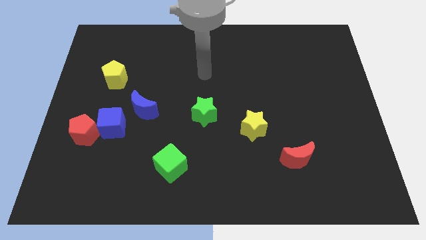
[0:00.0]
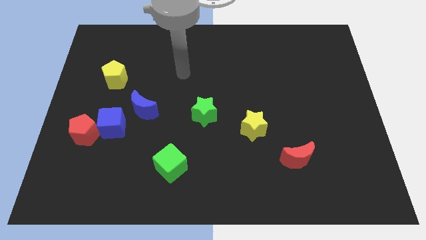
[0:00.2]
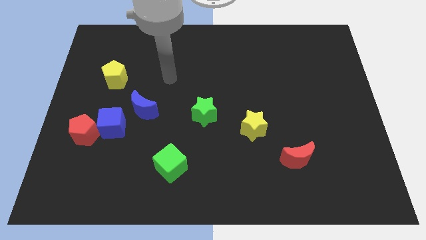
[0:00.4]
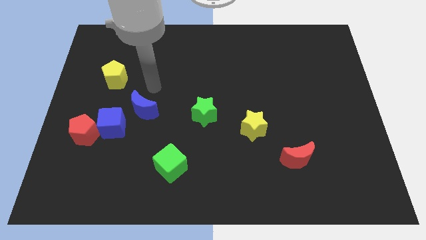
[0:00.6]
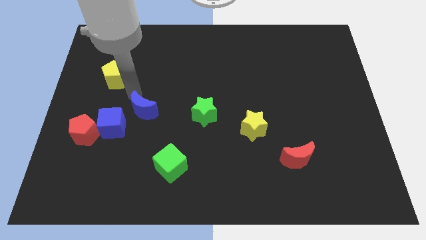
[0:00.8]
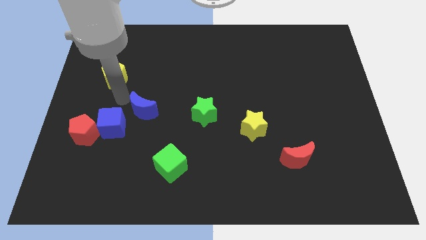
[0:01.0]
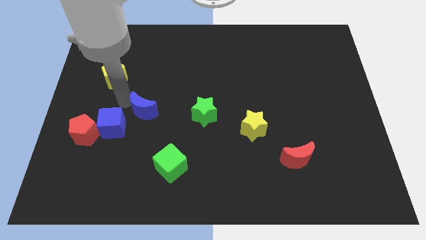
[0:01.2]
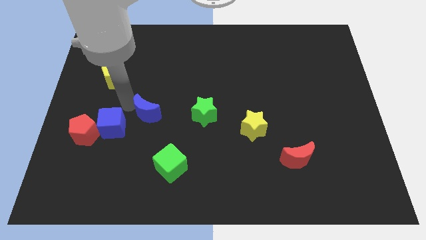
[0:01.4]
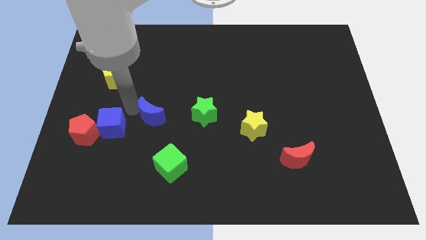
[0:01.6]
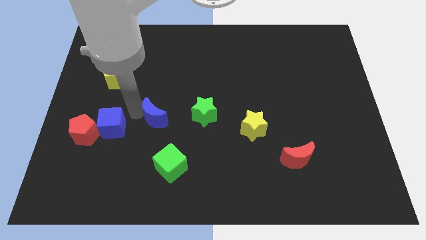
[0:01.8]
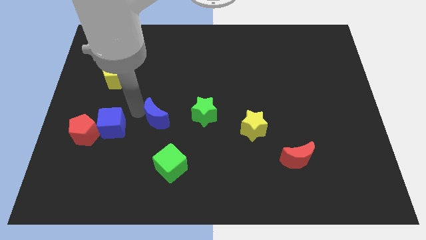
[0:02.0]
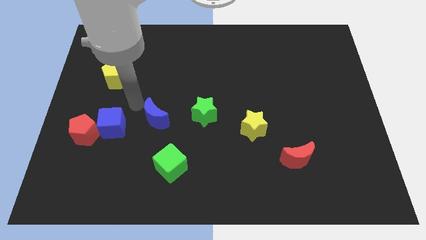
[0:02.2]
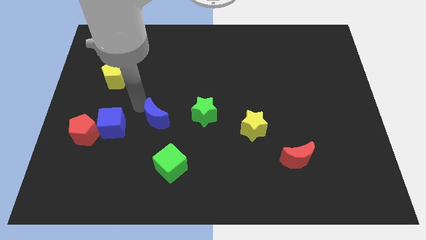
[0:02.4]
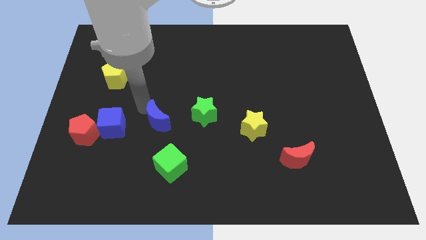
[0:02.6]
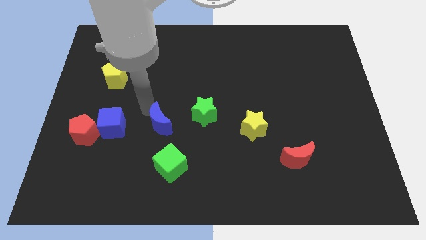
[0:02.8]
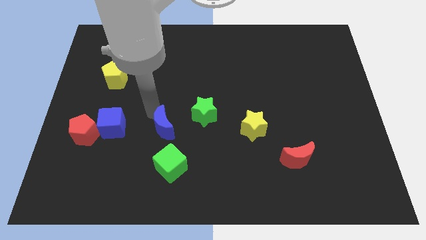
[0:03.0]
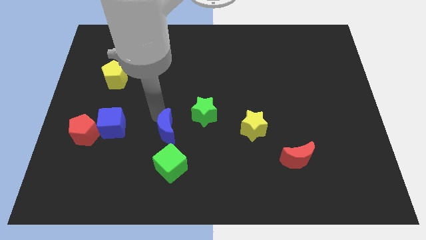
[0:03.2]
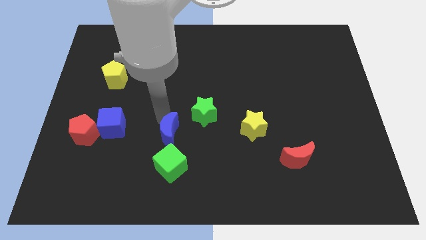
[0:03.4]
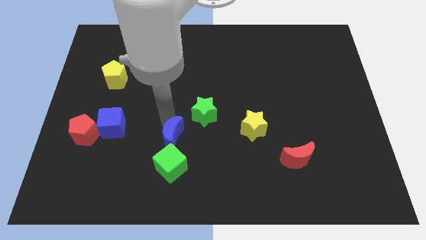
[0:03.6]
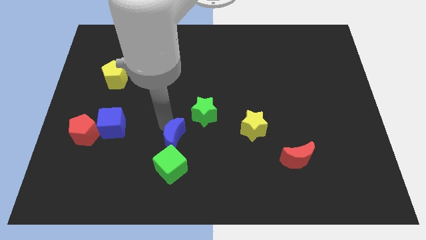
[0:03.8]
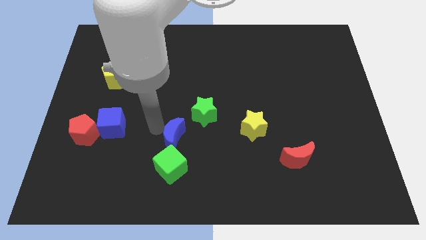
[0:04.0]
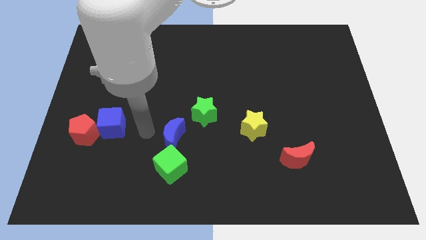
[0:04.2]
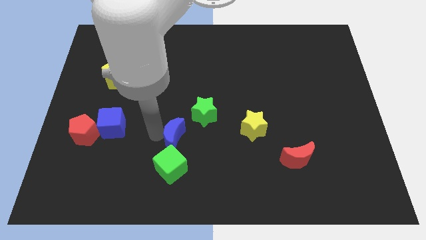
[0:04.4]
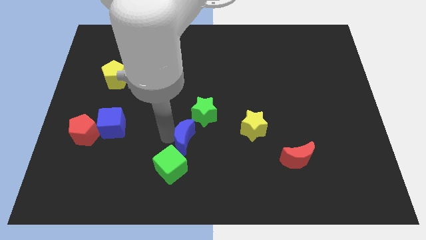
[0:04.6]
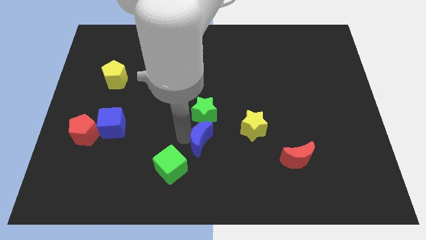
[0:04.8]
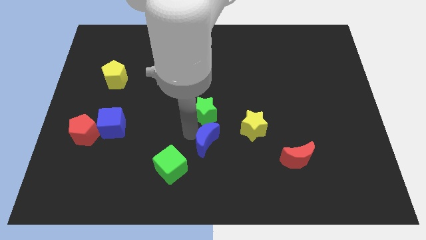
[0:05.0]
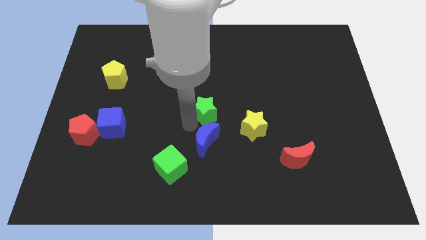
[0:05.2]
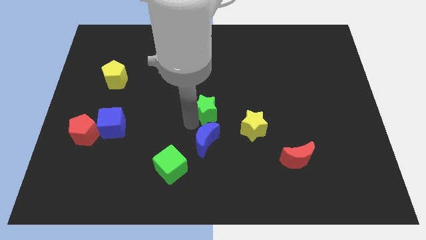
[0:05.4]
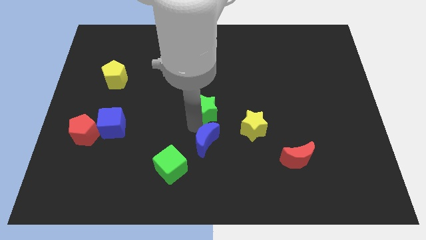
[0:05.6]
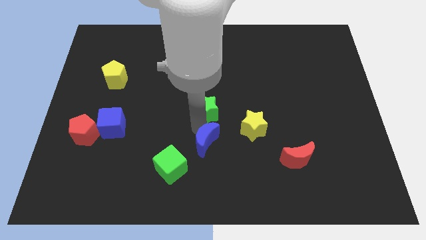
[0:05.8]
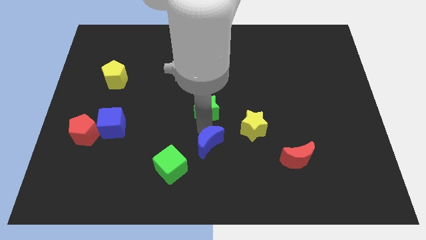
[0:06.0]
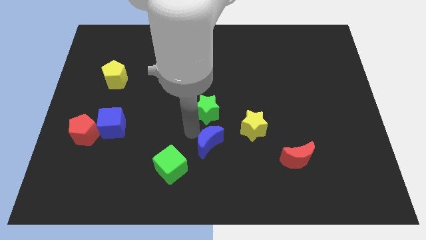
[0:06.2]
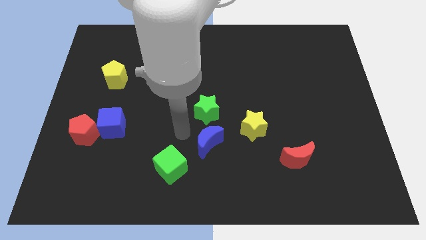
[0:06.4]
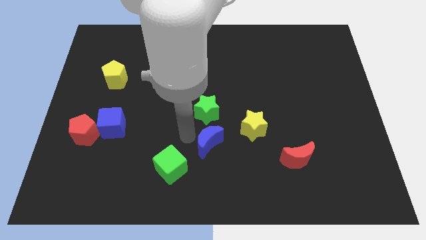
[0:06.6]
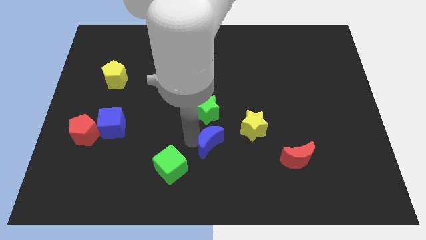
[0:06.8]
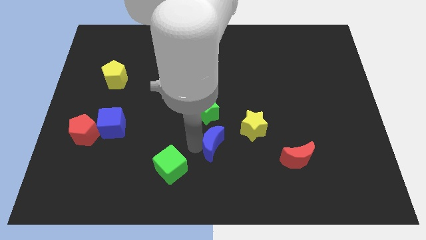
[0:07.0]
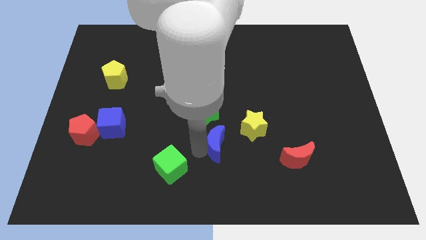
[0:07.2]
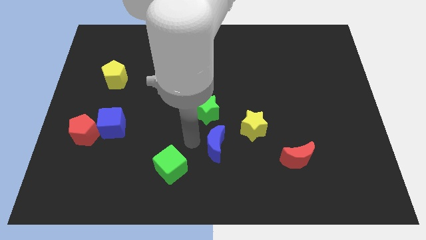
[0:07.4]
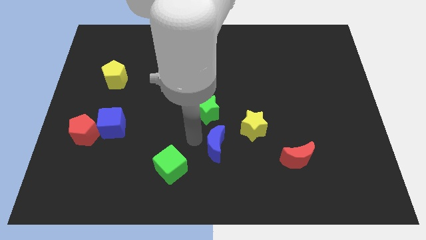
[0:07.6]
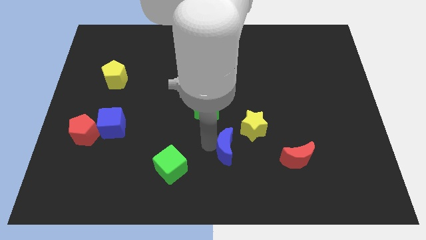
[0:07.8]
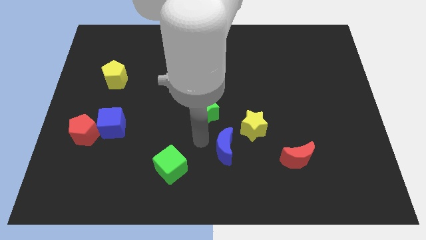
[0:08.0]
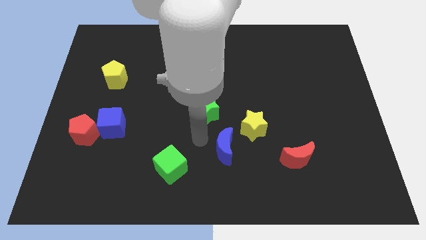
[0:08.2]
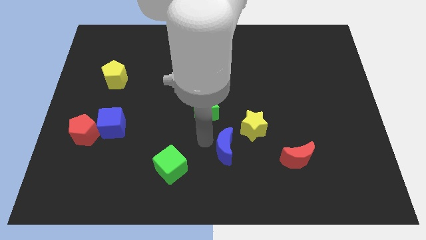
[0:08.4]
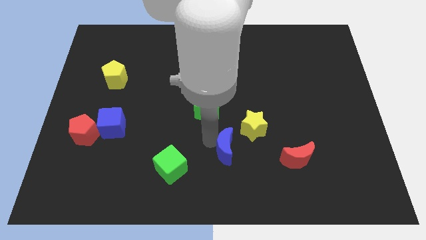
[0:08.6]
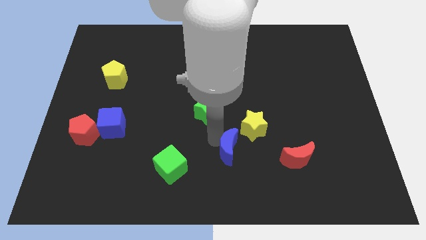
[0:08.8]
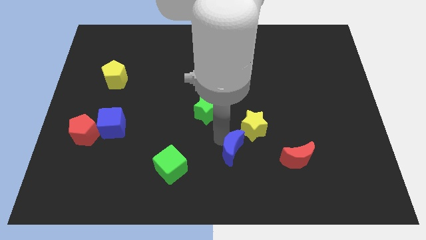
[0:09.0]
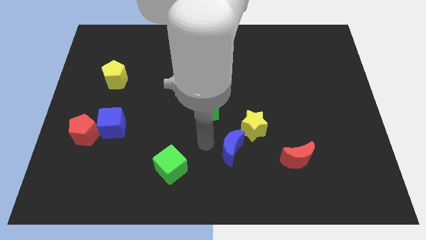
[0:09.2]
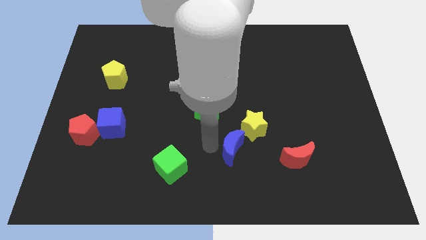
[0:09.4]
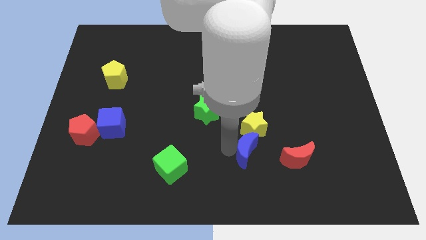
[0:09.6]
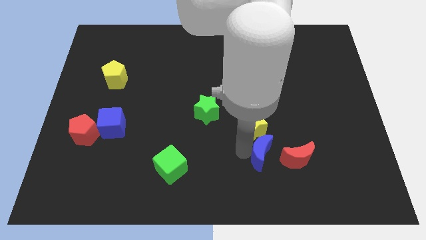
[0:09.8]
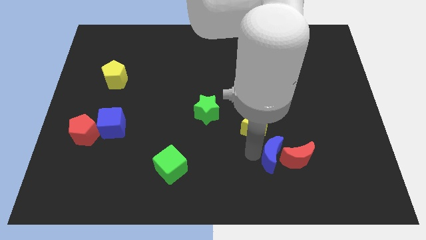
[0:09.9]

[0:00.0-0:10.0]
move the blue moon close to the red moon

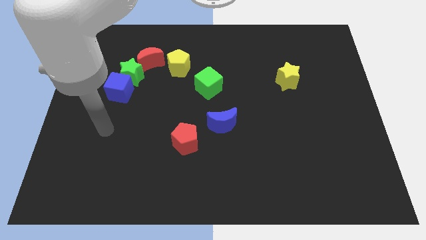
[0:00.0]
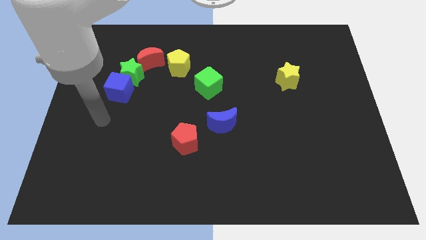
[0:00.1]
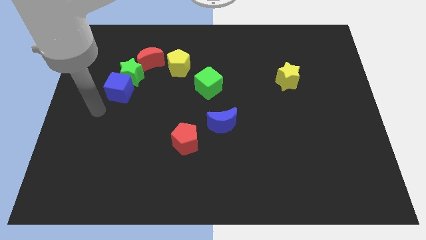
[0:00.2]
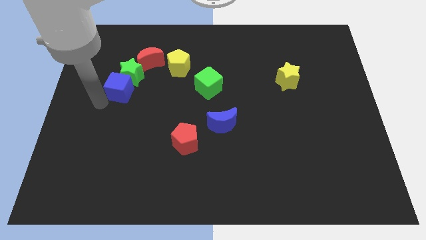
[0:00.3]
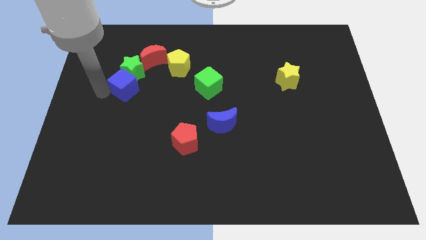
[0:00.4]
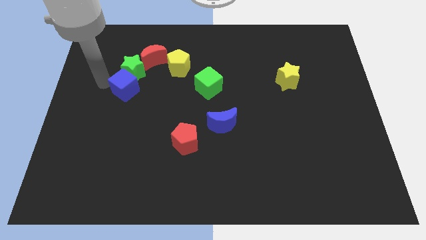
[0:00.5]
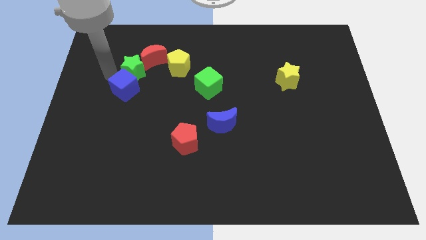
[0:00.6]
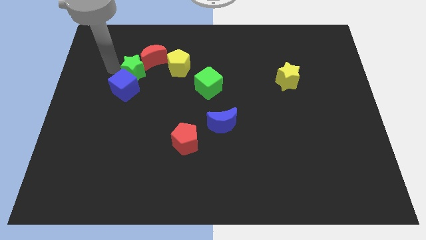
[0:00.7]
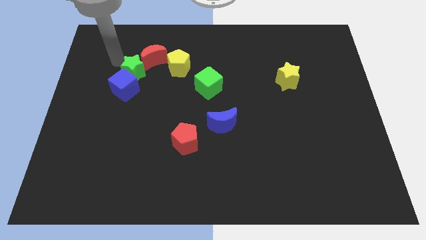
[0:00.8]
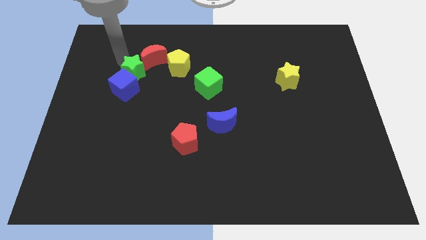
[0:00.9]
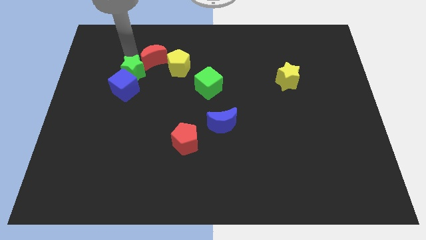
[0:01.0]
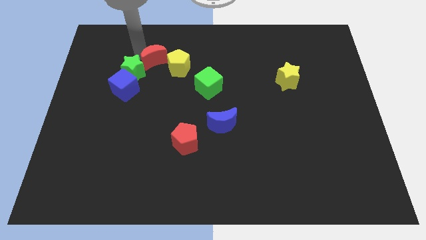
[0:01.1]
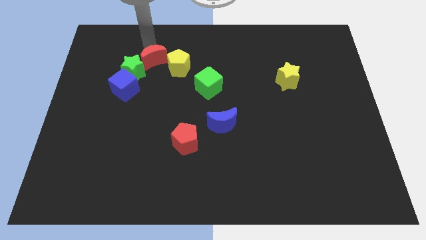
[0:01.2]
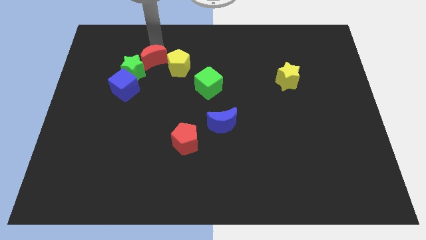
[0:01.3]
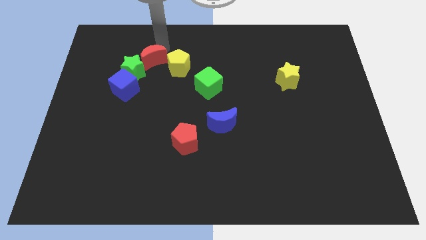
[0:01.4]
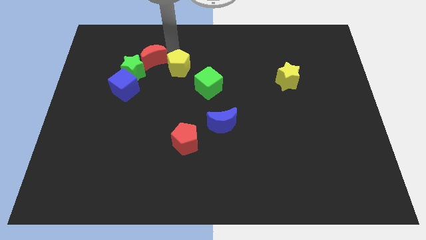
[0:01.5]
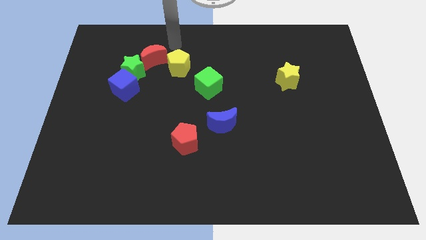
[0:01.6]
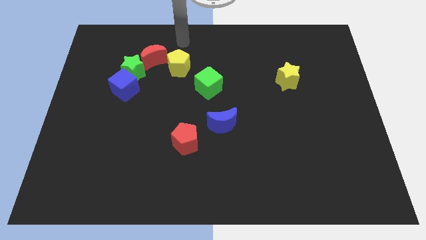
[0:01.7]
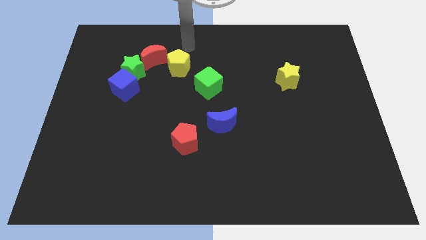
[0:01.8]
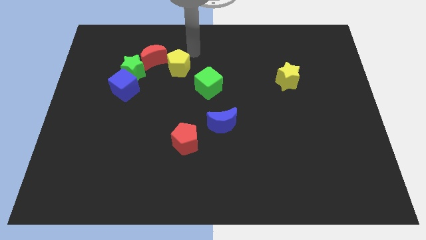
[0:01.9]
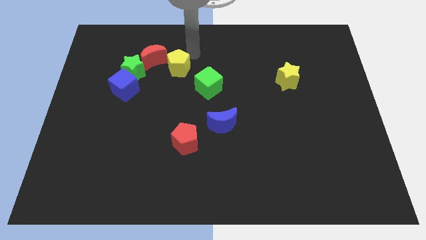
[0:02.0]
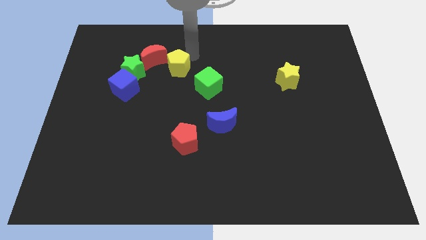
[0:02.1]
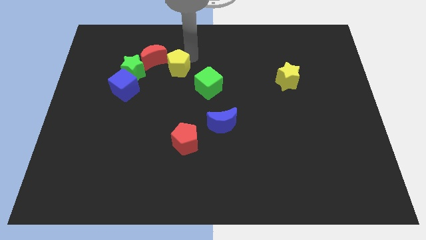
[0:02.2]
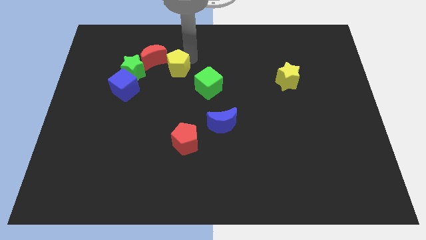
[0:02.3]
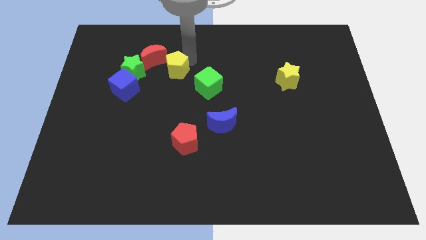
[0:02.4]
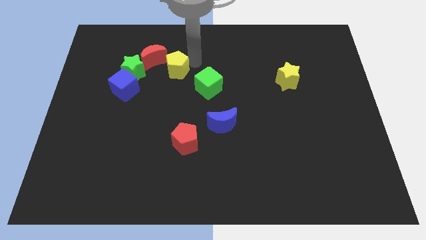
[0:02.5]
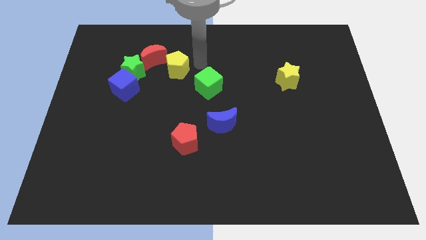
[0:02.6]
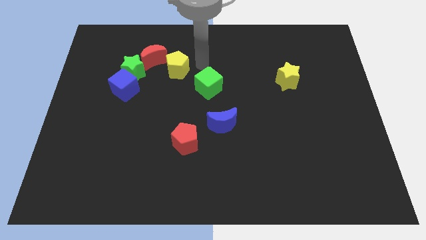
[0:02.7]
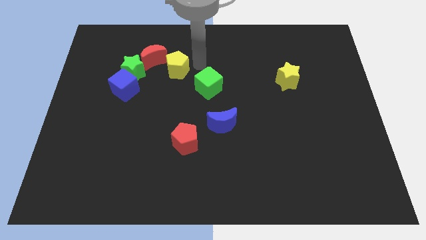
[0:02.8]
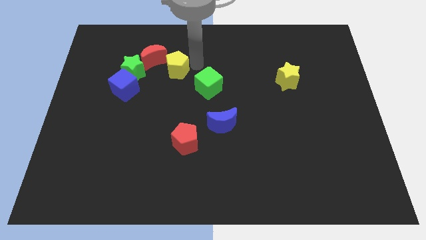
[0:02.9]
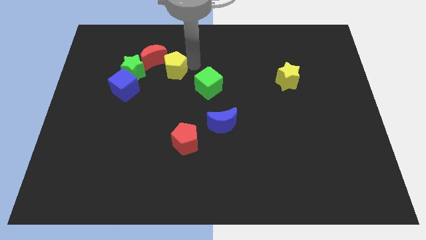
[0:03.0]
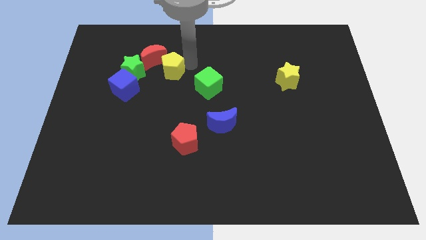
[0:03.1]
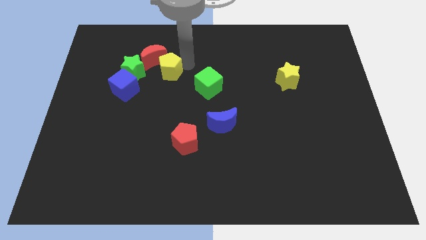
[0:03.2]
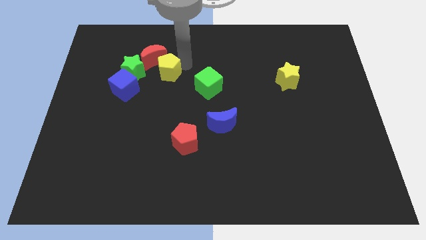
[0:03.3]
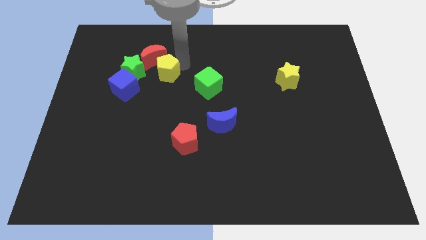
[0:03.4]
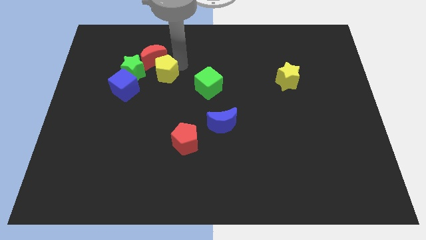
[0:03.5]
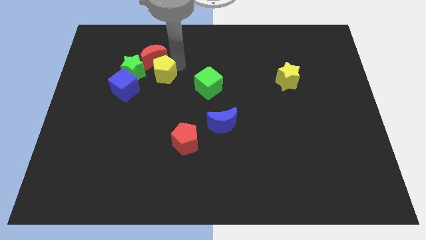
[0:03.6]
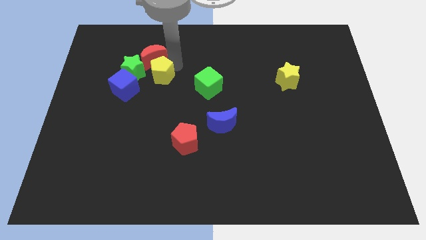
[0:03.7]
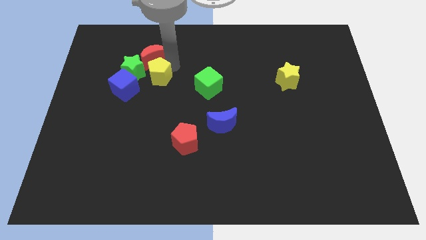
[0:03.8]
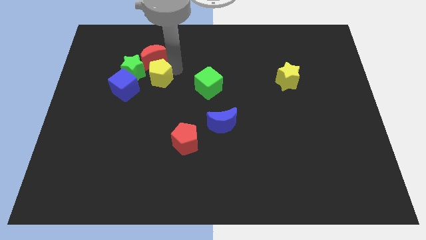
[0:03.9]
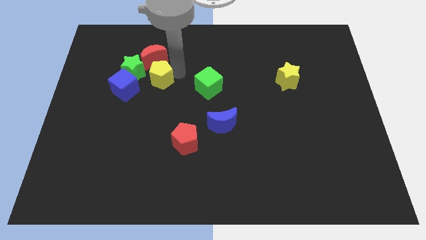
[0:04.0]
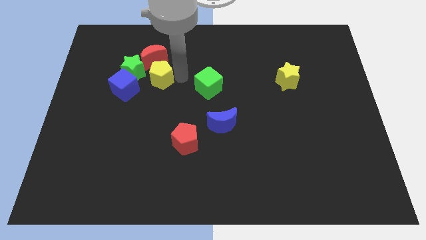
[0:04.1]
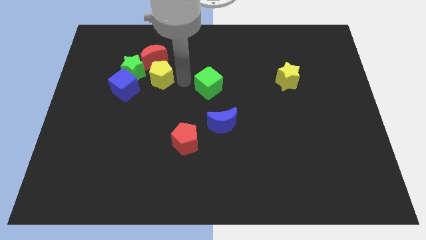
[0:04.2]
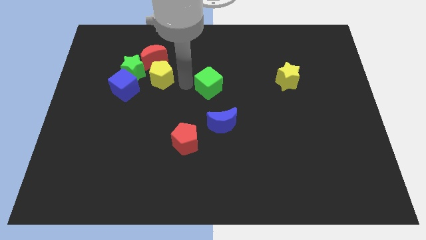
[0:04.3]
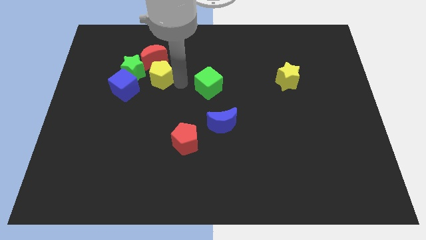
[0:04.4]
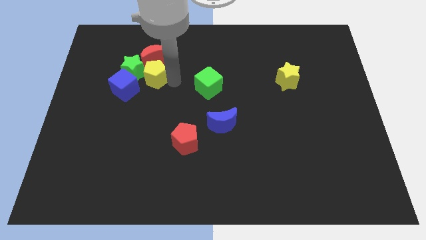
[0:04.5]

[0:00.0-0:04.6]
push the yellow pentagon towards the green star
